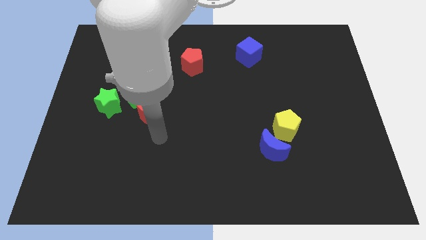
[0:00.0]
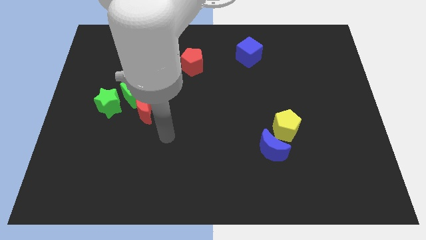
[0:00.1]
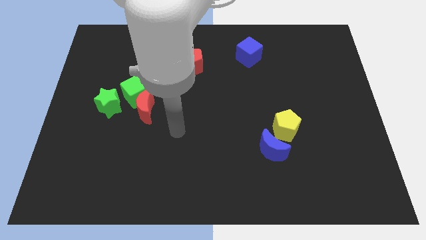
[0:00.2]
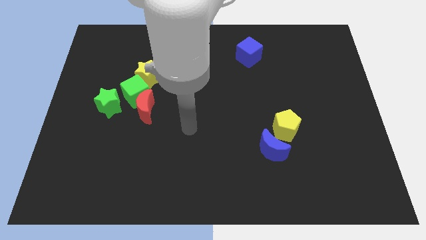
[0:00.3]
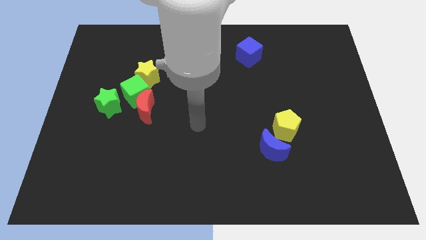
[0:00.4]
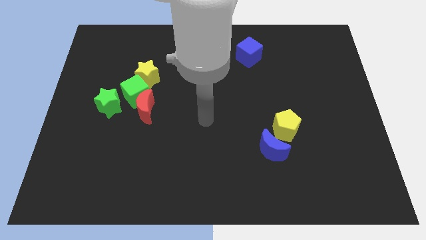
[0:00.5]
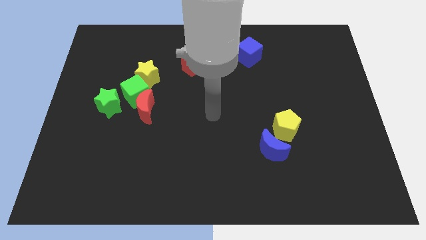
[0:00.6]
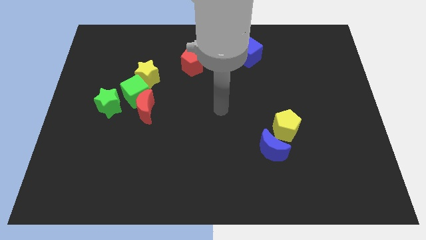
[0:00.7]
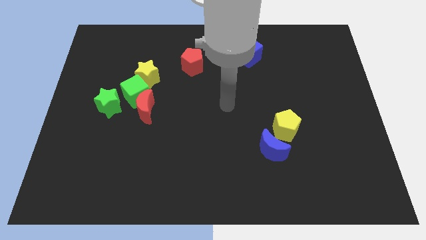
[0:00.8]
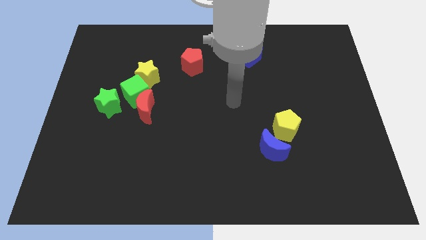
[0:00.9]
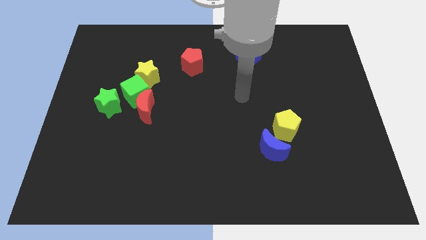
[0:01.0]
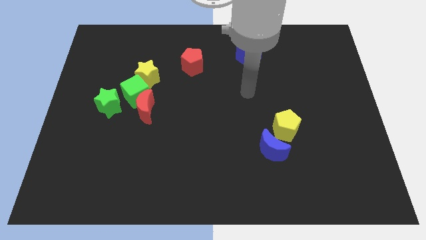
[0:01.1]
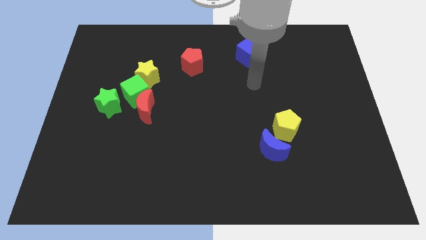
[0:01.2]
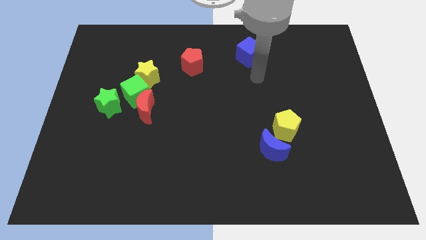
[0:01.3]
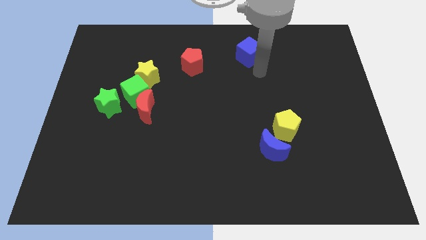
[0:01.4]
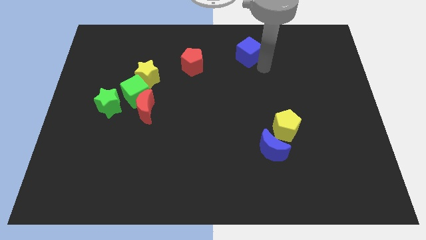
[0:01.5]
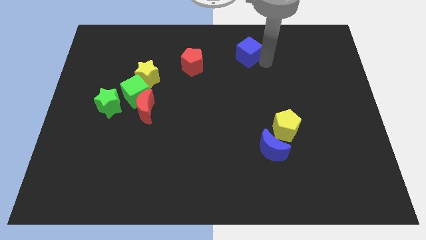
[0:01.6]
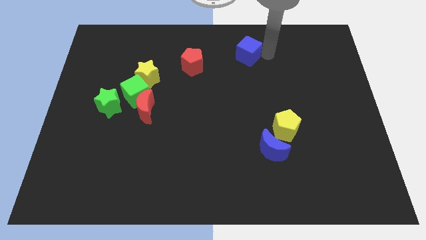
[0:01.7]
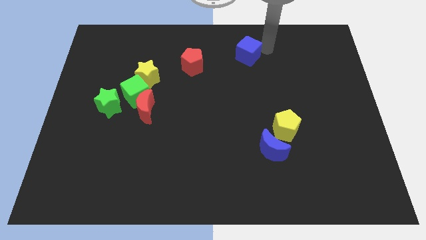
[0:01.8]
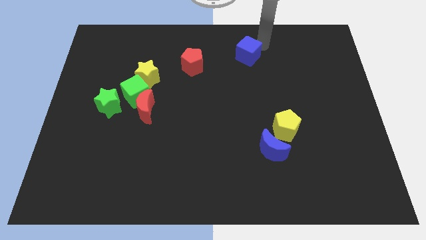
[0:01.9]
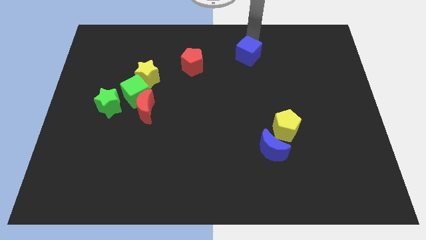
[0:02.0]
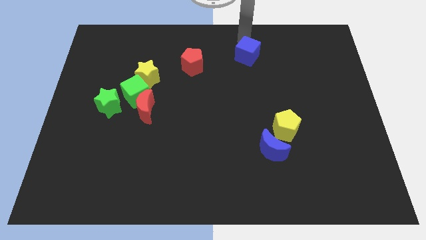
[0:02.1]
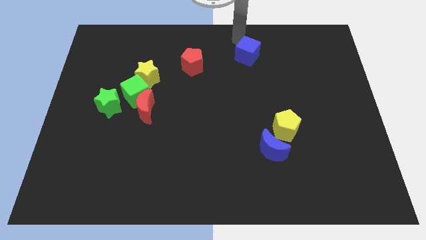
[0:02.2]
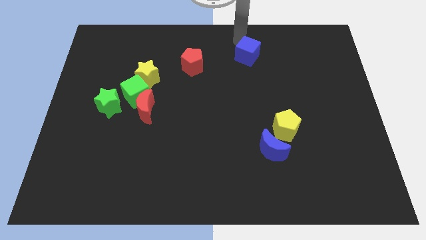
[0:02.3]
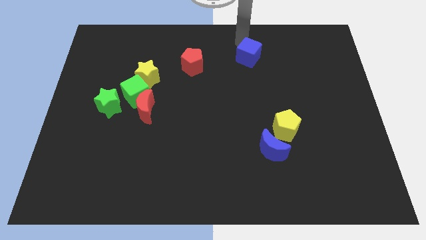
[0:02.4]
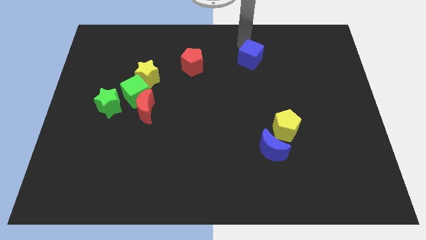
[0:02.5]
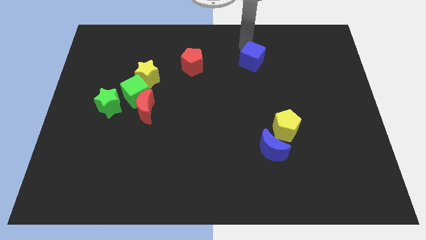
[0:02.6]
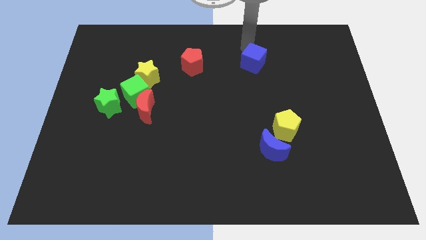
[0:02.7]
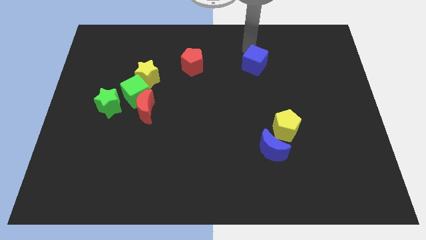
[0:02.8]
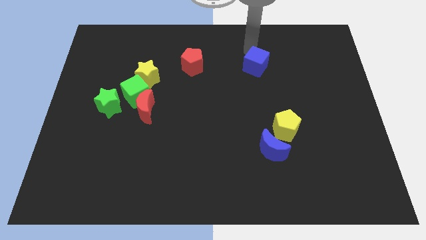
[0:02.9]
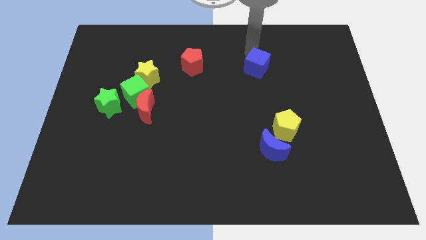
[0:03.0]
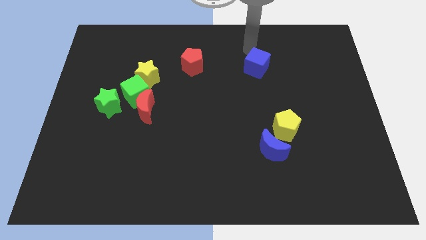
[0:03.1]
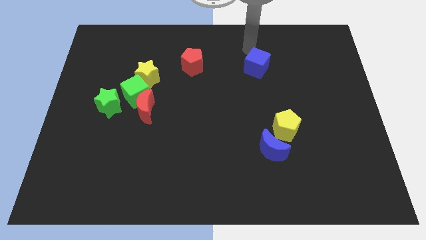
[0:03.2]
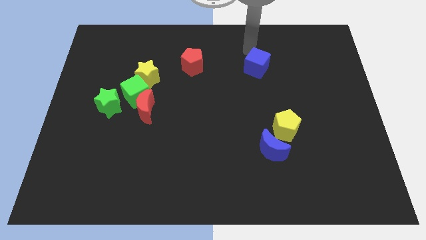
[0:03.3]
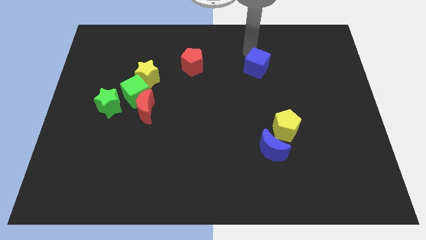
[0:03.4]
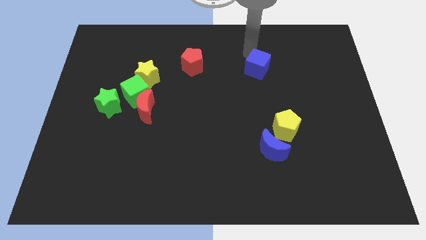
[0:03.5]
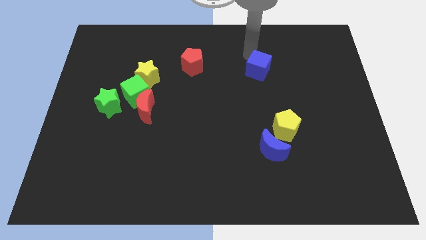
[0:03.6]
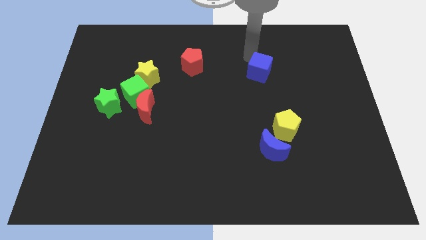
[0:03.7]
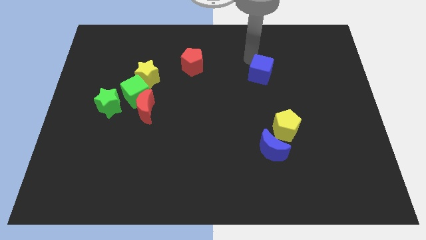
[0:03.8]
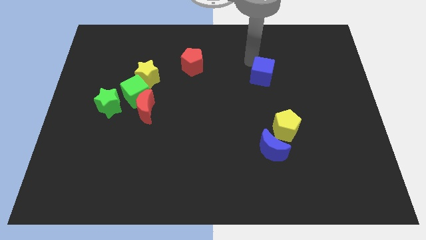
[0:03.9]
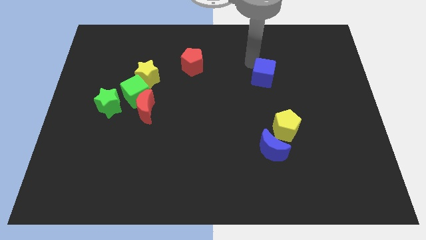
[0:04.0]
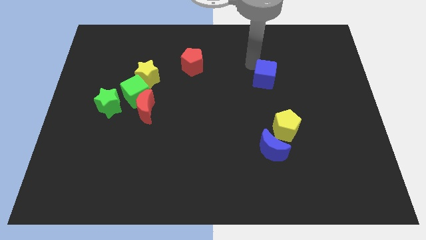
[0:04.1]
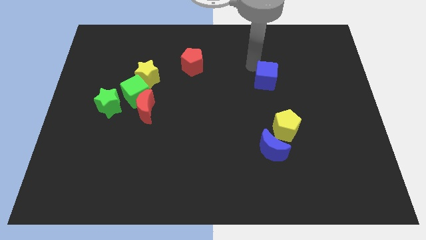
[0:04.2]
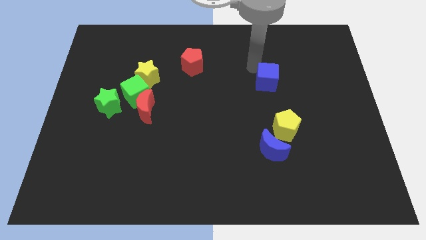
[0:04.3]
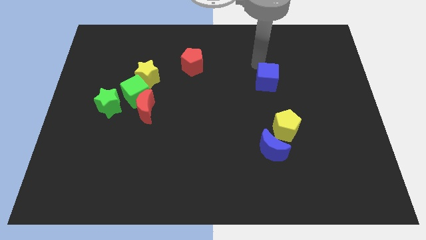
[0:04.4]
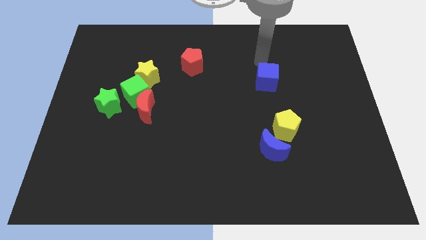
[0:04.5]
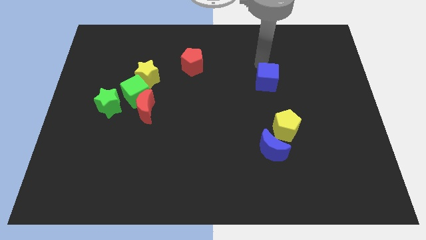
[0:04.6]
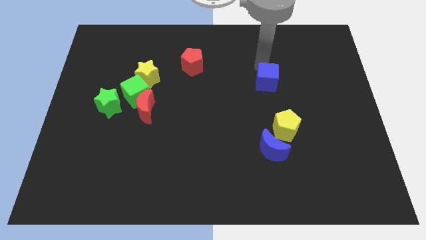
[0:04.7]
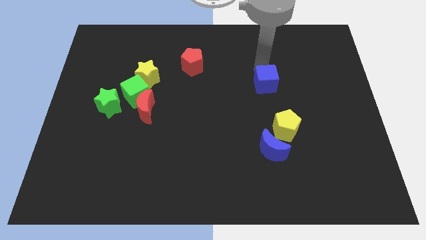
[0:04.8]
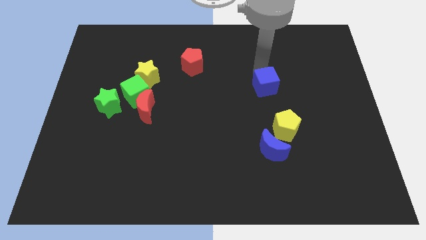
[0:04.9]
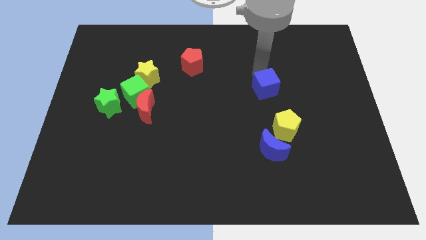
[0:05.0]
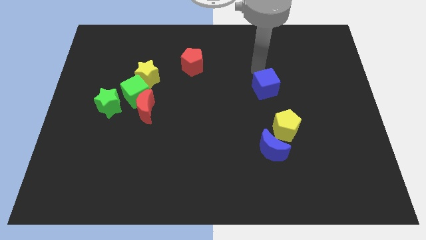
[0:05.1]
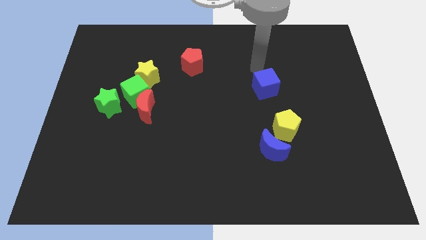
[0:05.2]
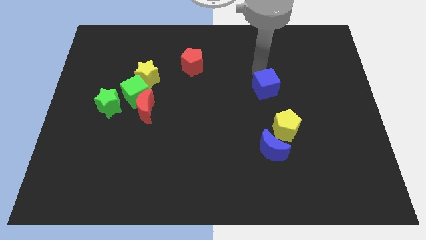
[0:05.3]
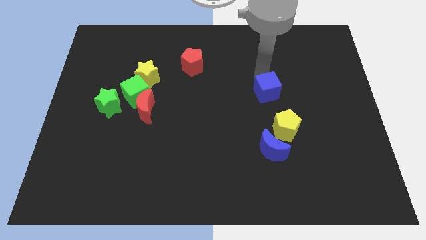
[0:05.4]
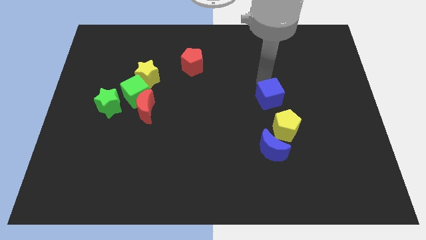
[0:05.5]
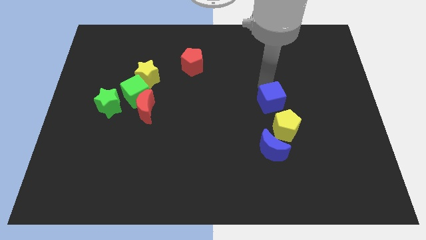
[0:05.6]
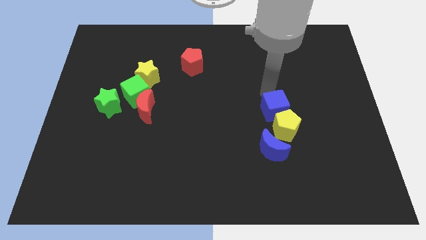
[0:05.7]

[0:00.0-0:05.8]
move the blue cube close to the yellow pentagon

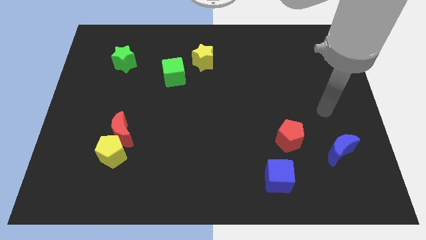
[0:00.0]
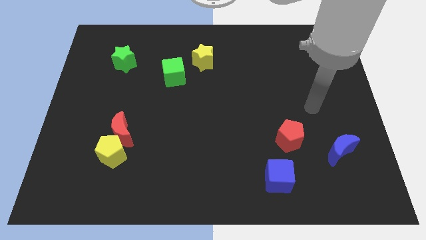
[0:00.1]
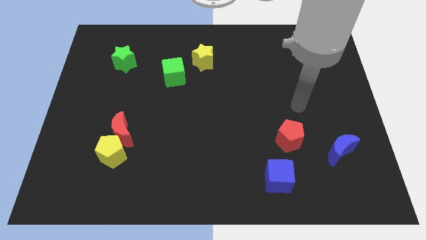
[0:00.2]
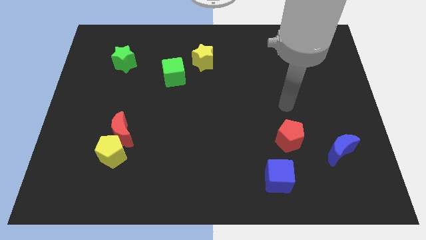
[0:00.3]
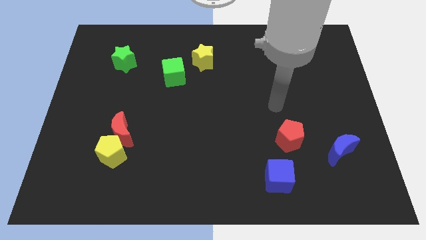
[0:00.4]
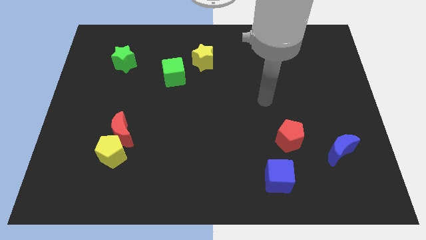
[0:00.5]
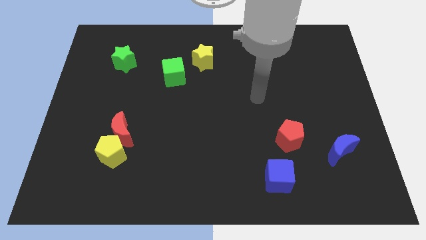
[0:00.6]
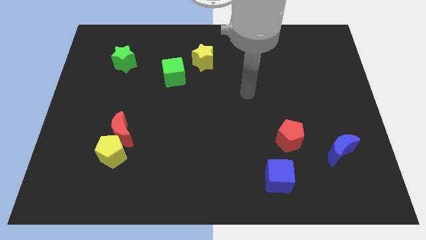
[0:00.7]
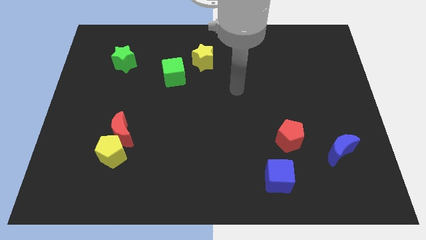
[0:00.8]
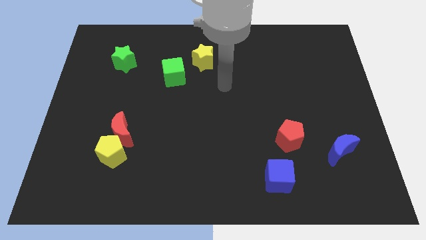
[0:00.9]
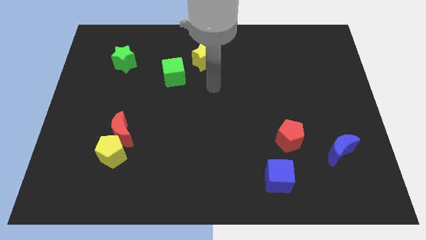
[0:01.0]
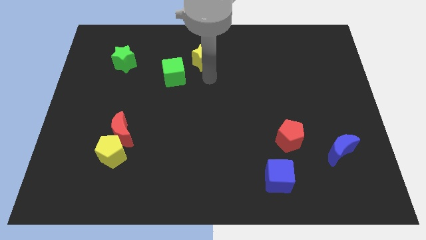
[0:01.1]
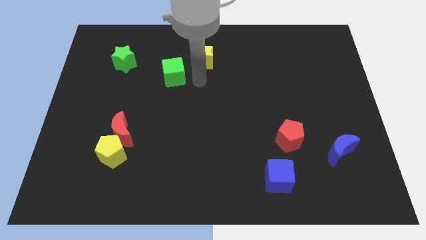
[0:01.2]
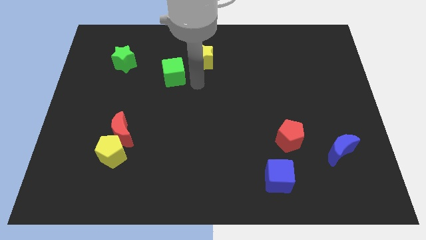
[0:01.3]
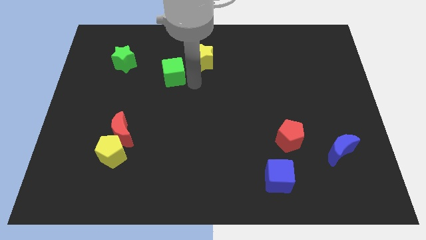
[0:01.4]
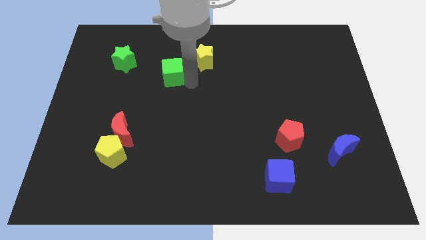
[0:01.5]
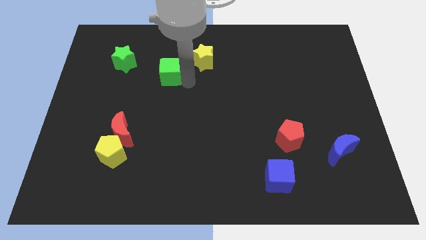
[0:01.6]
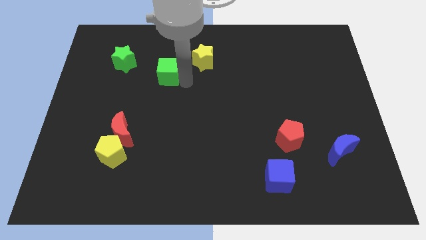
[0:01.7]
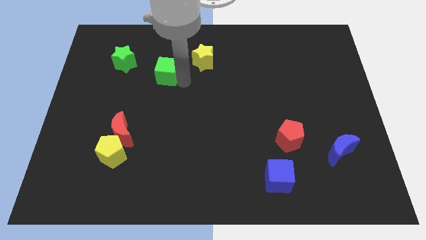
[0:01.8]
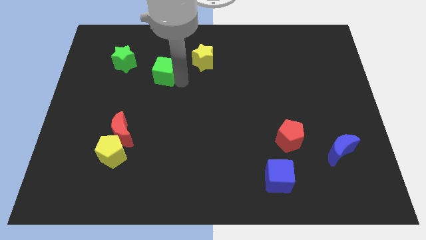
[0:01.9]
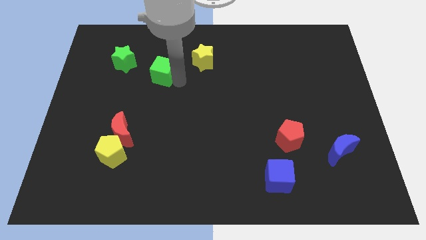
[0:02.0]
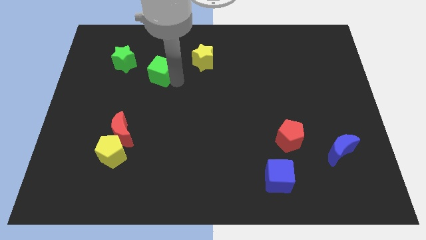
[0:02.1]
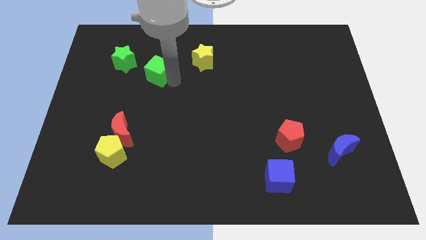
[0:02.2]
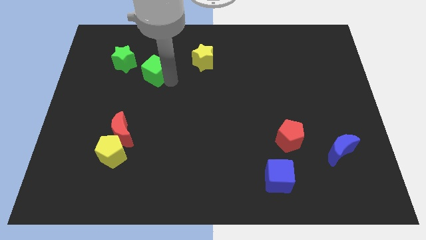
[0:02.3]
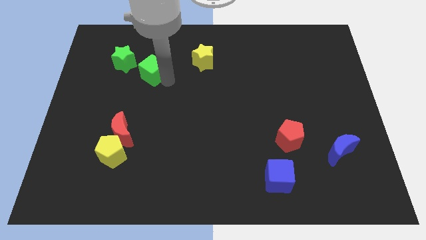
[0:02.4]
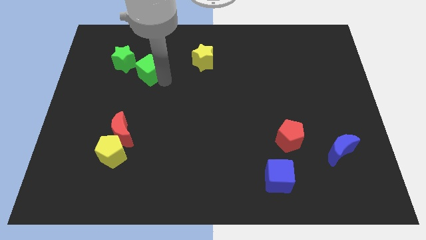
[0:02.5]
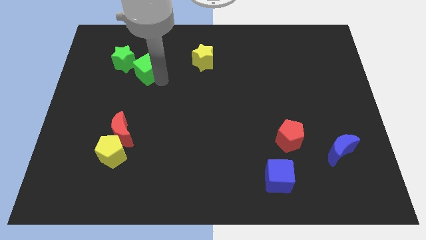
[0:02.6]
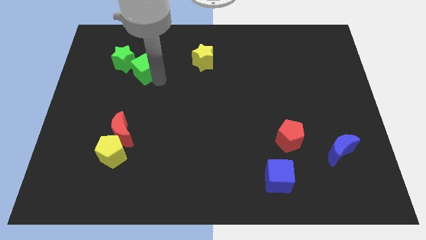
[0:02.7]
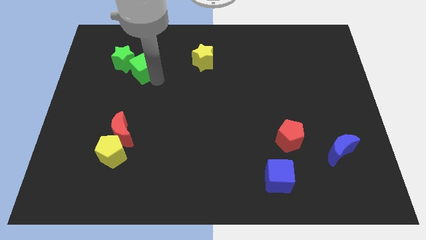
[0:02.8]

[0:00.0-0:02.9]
put the green cube towards the green star
